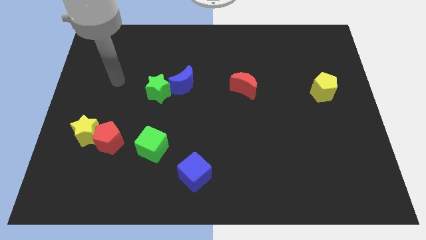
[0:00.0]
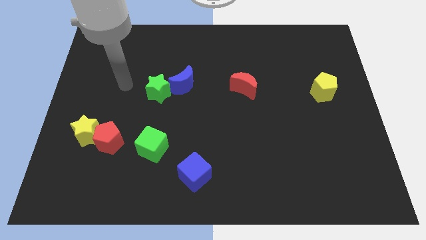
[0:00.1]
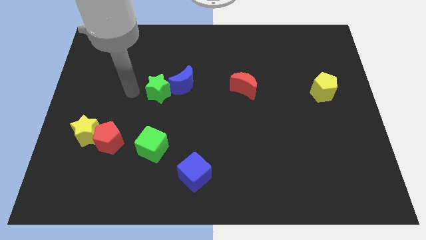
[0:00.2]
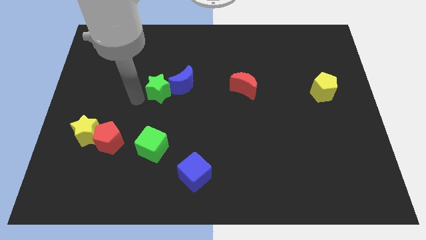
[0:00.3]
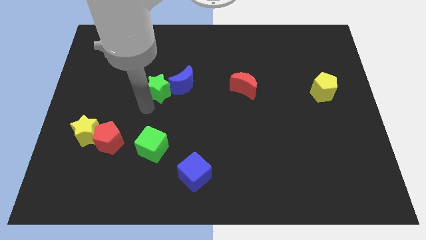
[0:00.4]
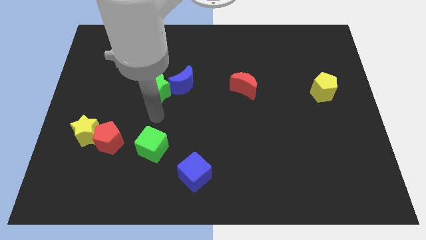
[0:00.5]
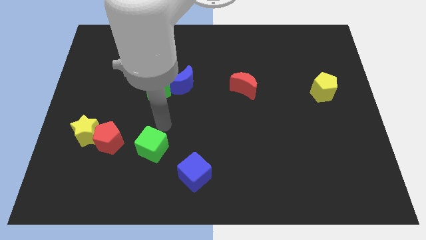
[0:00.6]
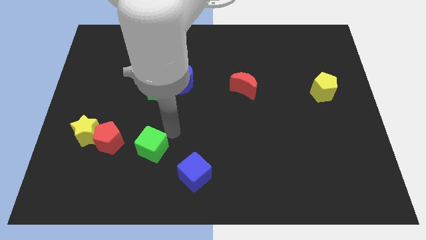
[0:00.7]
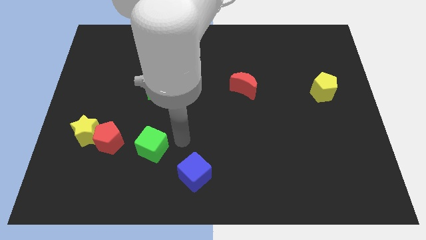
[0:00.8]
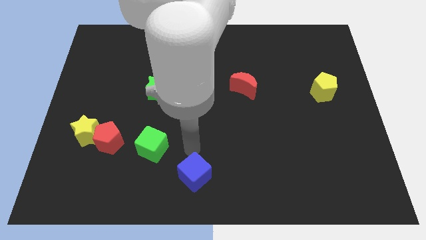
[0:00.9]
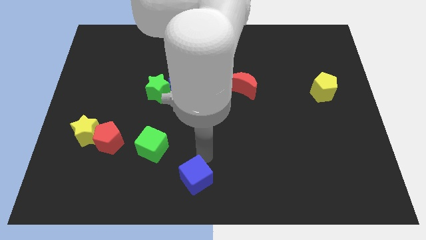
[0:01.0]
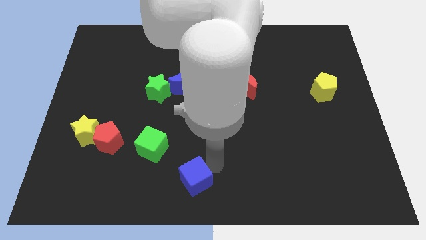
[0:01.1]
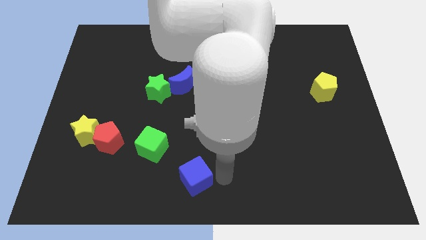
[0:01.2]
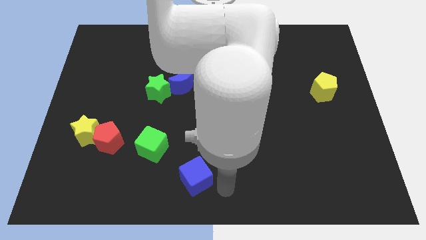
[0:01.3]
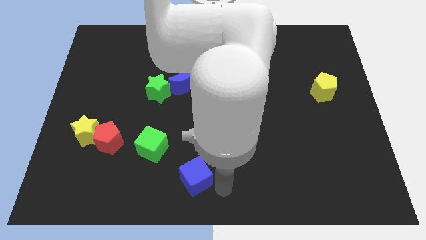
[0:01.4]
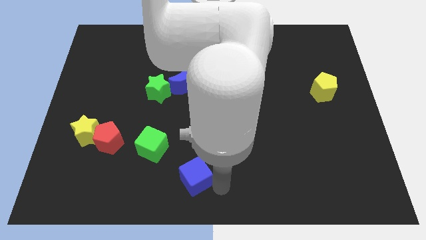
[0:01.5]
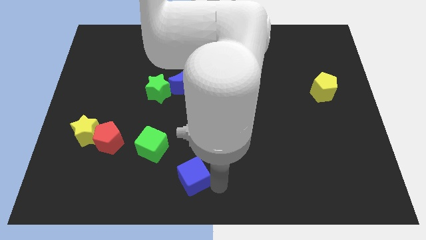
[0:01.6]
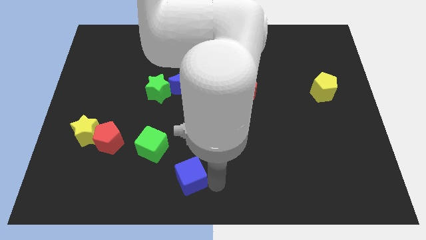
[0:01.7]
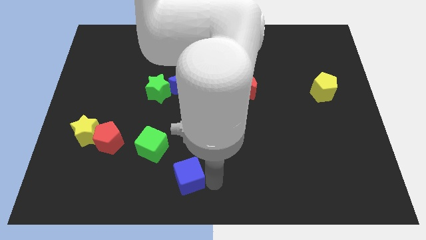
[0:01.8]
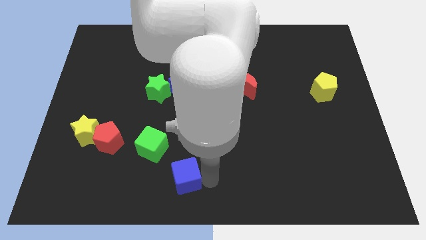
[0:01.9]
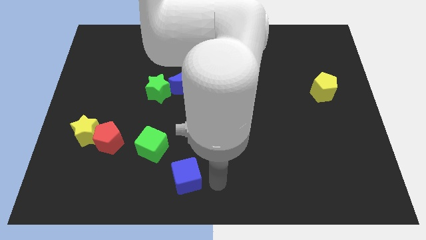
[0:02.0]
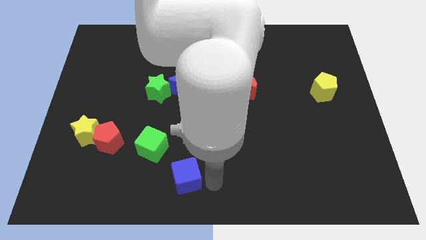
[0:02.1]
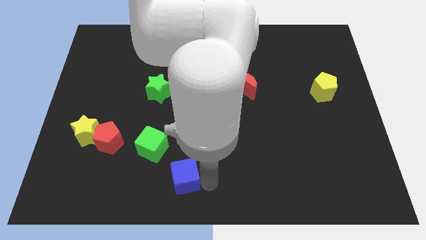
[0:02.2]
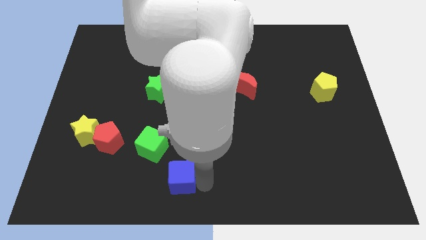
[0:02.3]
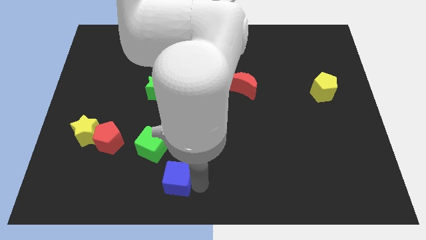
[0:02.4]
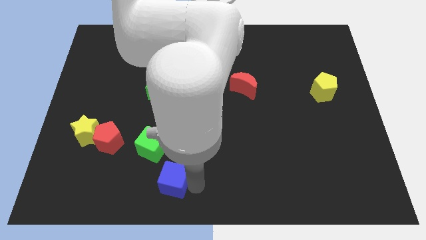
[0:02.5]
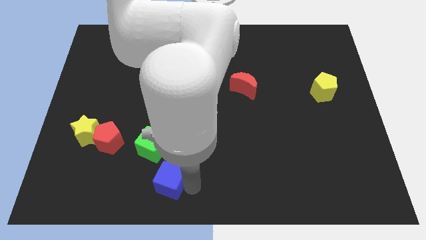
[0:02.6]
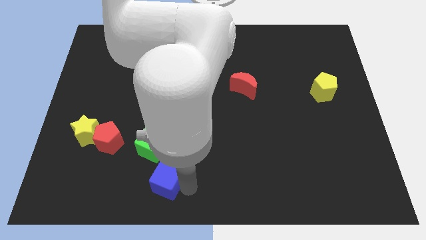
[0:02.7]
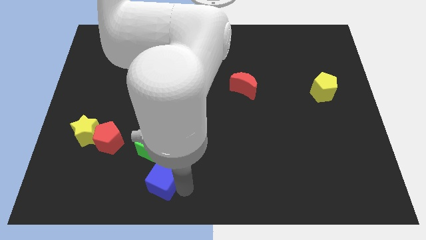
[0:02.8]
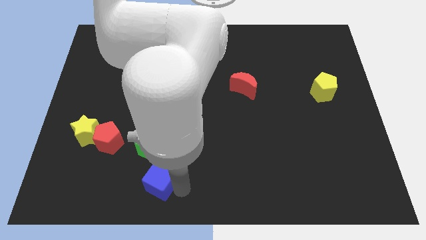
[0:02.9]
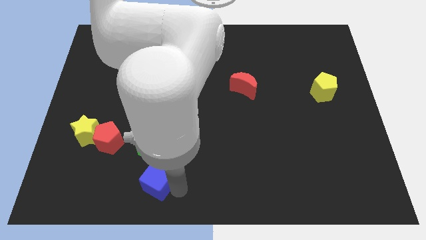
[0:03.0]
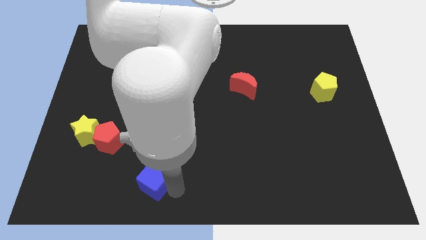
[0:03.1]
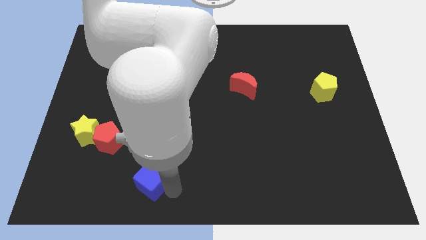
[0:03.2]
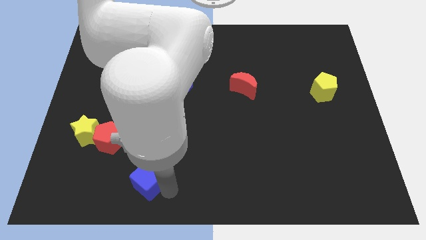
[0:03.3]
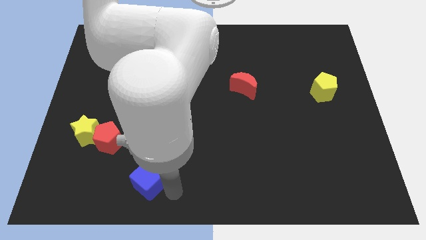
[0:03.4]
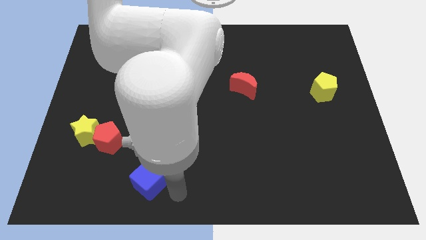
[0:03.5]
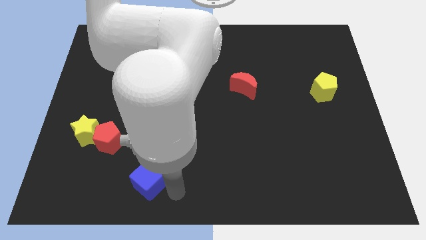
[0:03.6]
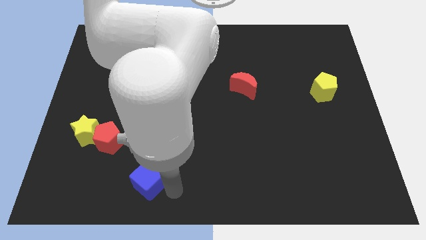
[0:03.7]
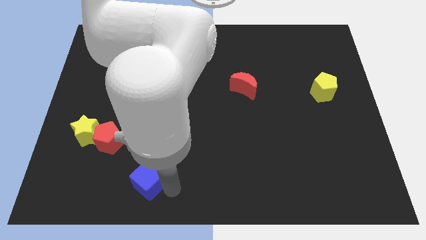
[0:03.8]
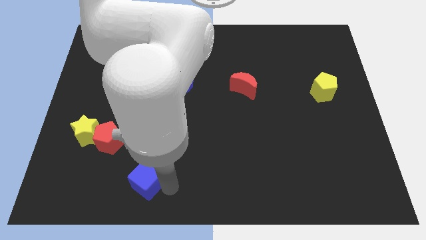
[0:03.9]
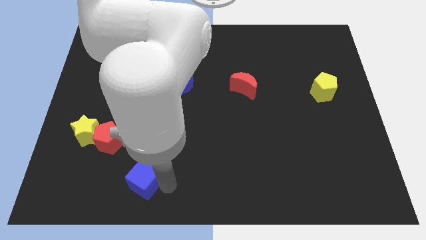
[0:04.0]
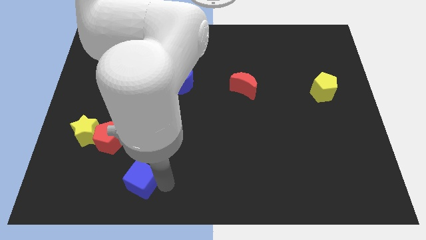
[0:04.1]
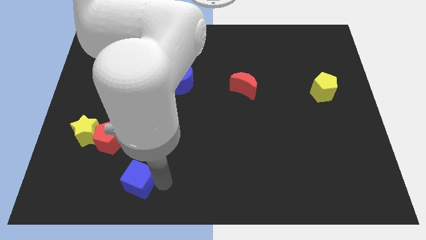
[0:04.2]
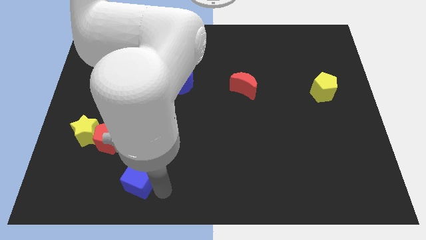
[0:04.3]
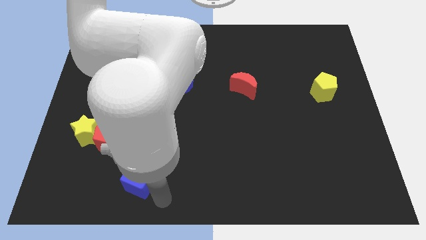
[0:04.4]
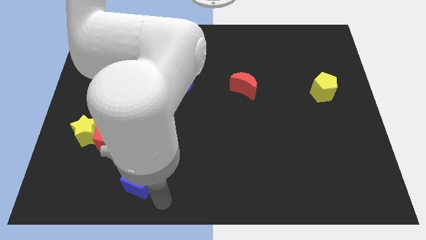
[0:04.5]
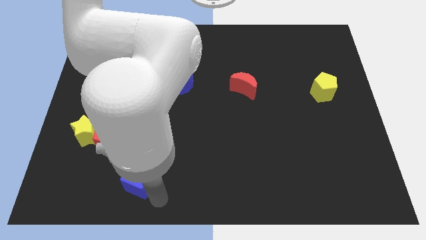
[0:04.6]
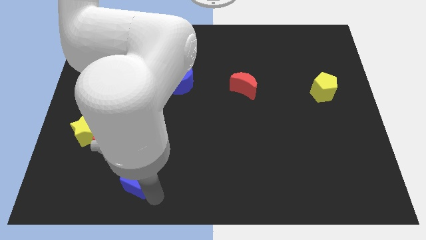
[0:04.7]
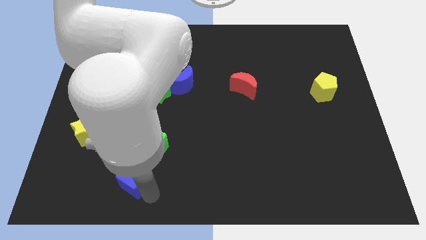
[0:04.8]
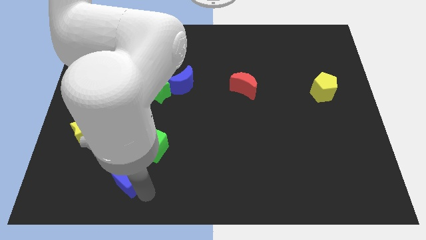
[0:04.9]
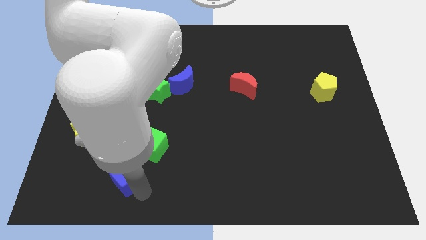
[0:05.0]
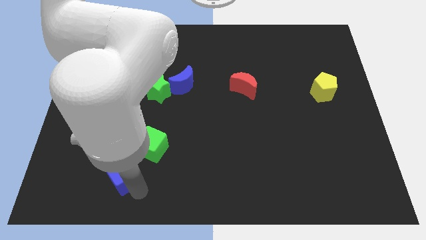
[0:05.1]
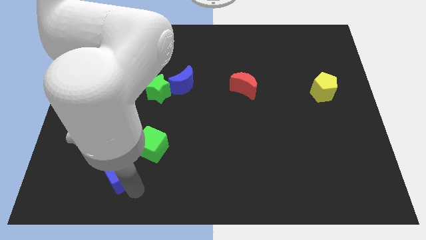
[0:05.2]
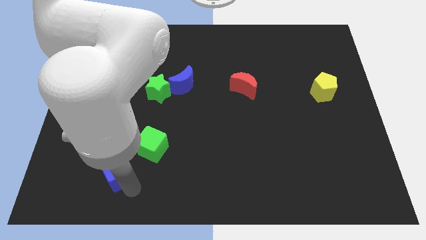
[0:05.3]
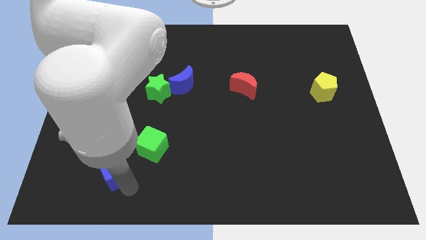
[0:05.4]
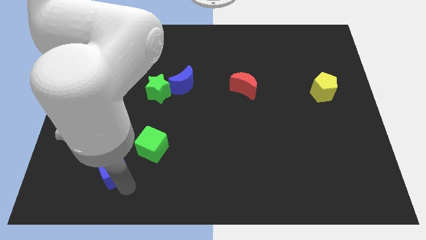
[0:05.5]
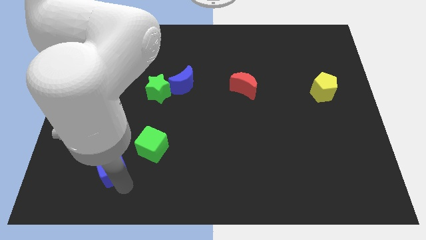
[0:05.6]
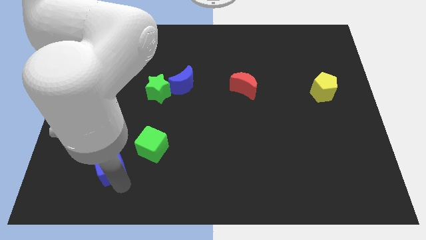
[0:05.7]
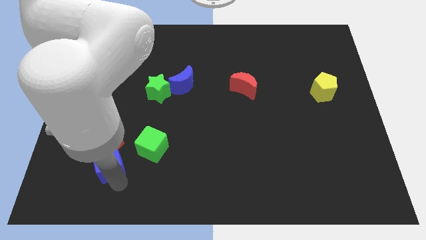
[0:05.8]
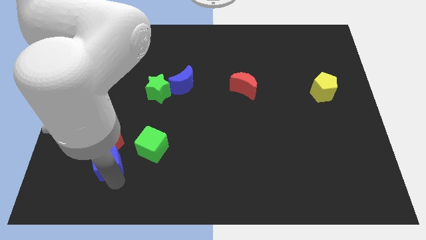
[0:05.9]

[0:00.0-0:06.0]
slide the blue cube close to the red pentagon

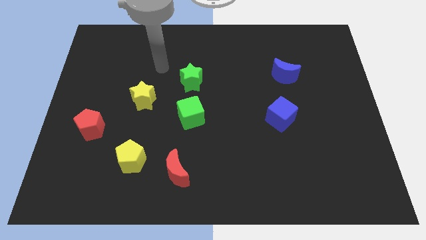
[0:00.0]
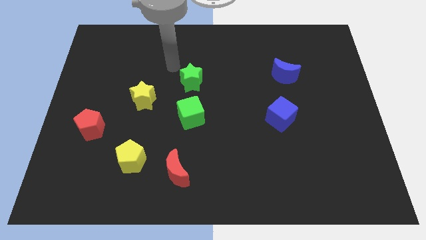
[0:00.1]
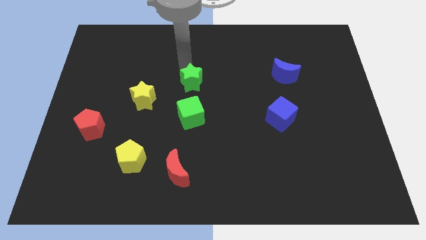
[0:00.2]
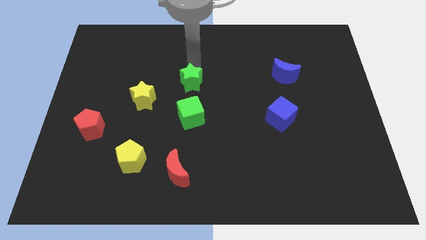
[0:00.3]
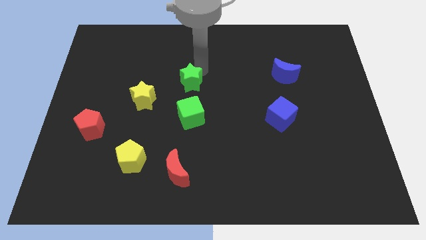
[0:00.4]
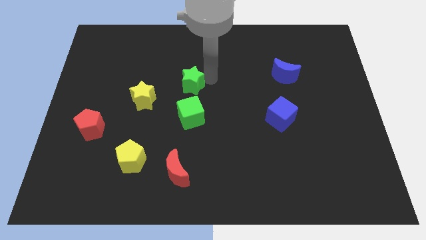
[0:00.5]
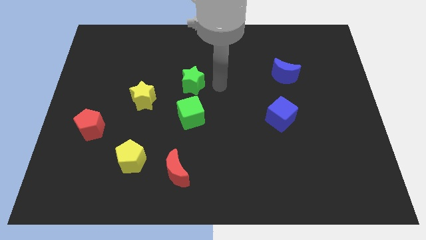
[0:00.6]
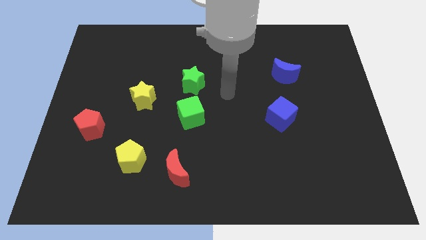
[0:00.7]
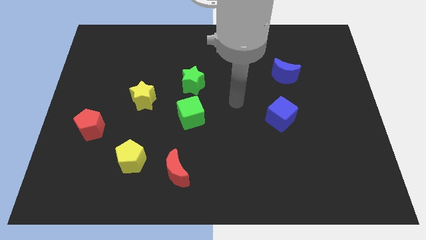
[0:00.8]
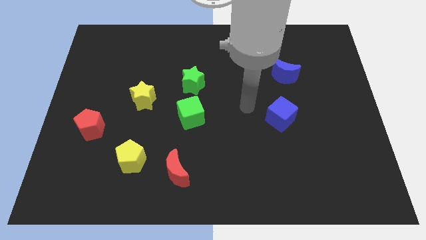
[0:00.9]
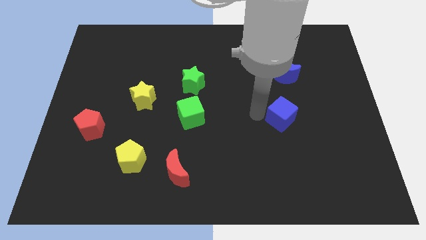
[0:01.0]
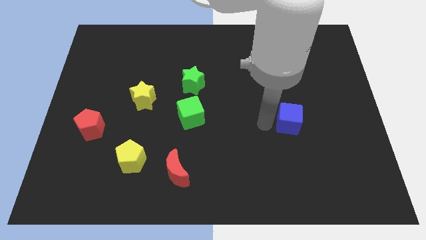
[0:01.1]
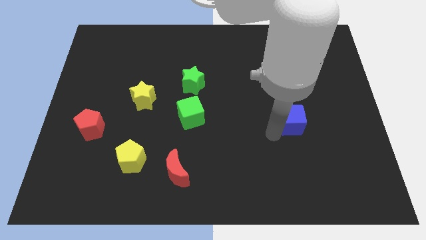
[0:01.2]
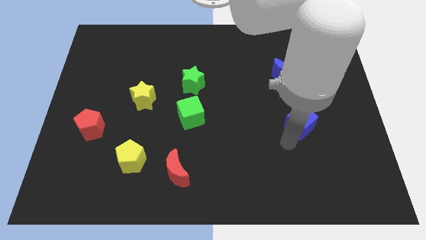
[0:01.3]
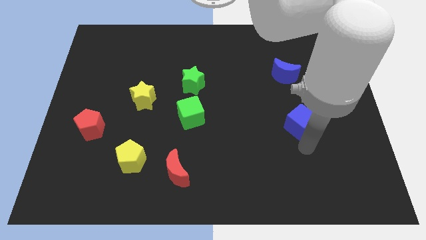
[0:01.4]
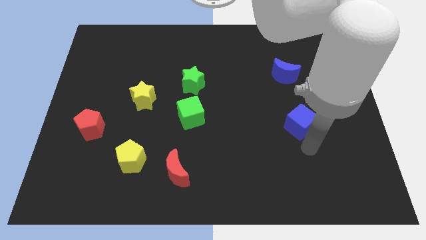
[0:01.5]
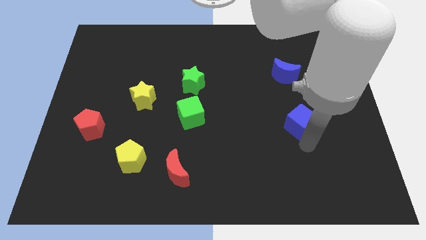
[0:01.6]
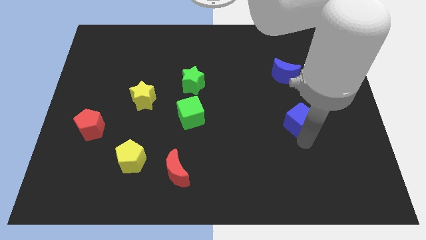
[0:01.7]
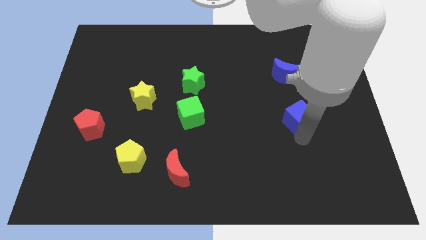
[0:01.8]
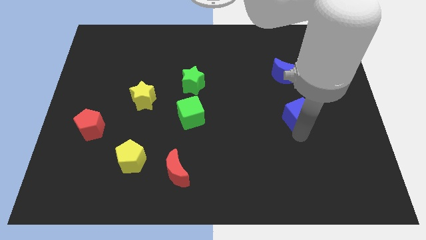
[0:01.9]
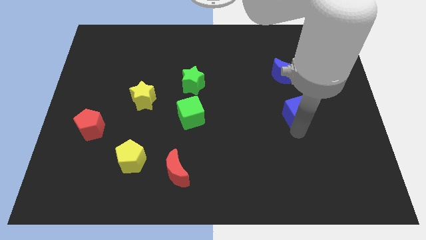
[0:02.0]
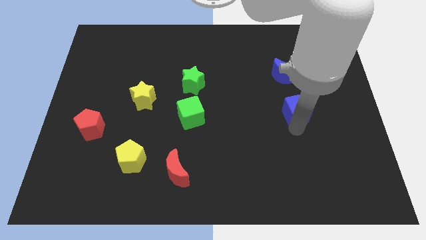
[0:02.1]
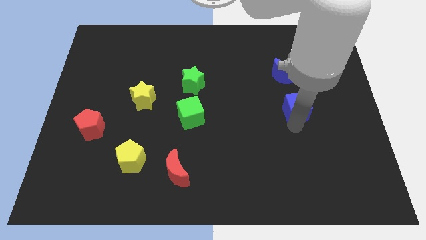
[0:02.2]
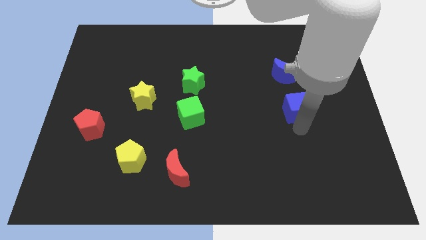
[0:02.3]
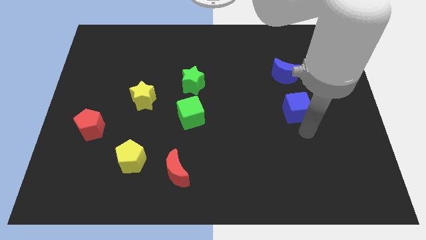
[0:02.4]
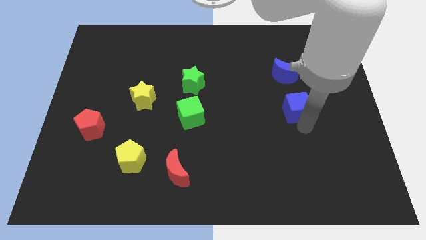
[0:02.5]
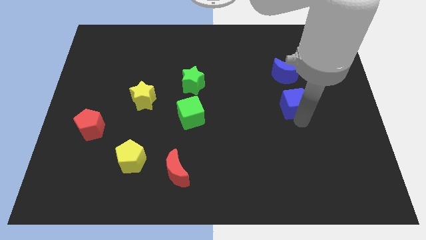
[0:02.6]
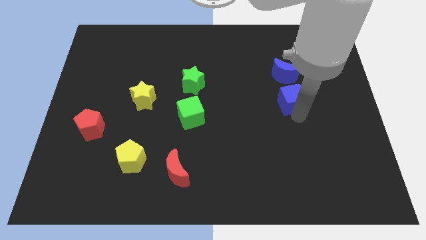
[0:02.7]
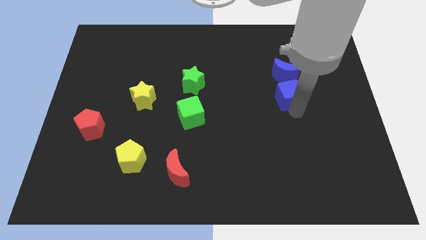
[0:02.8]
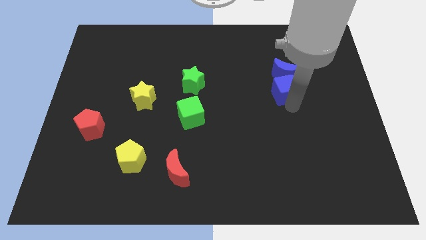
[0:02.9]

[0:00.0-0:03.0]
move the blue cube towards the blue moon
